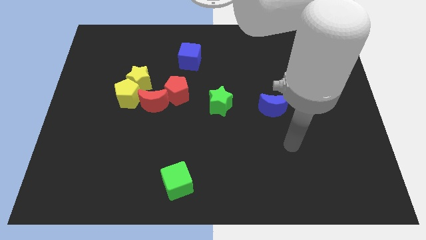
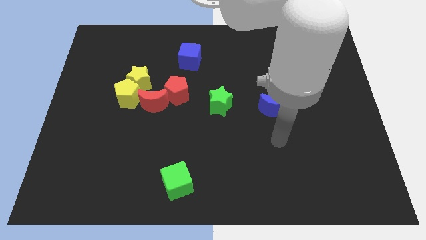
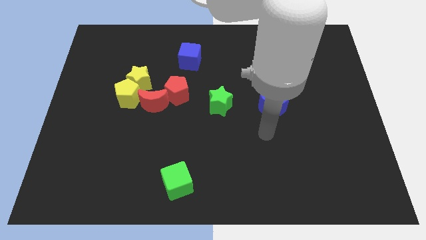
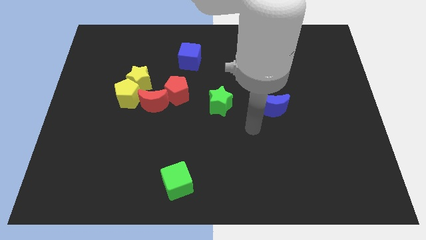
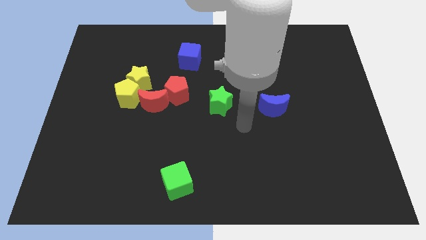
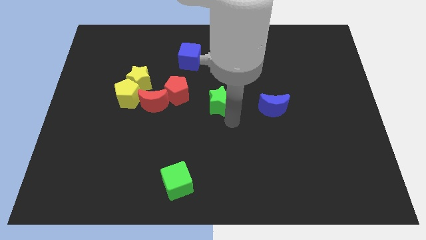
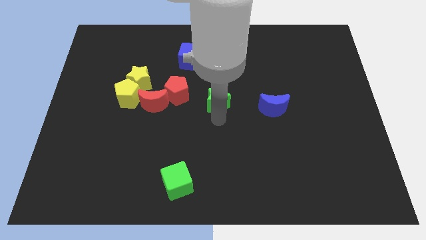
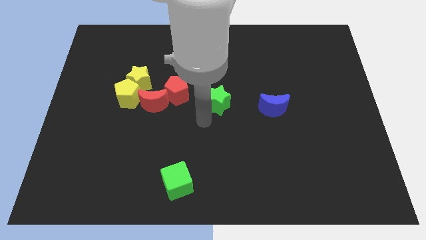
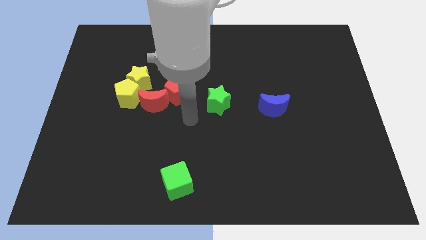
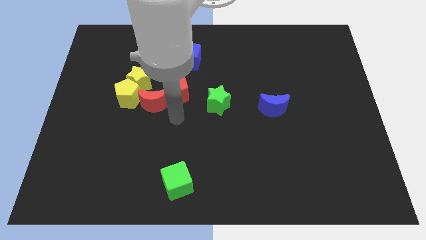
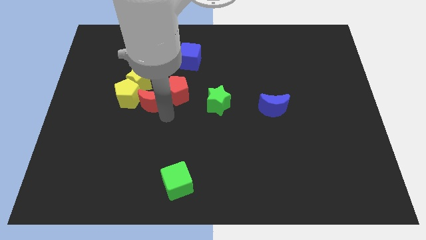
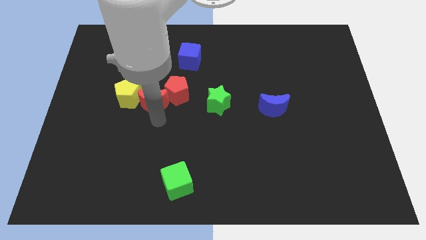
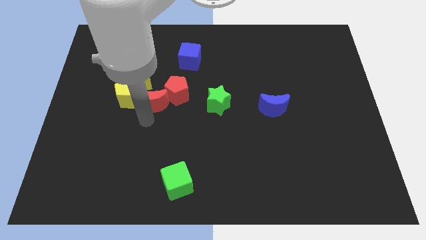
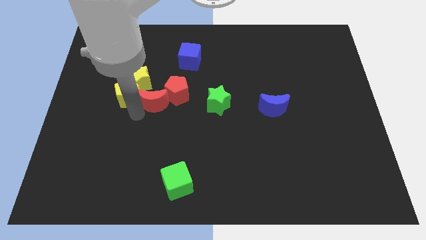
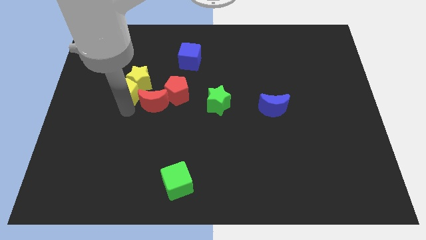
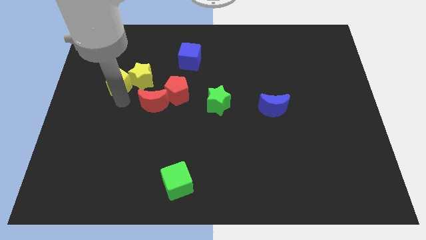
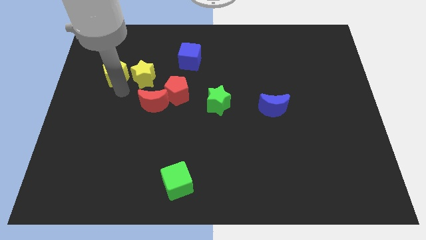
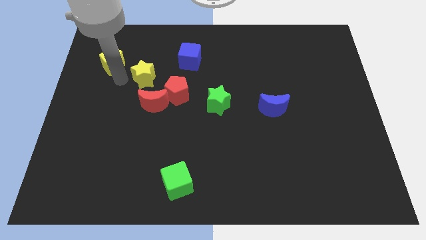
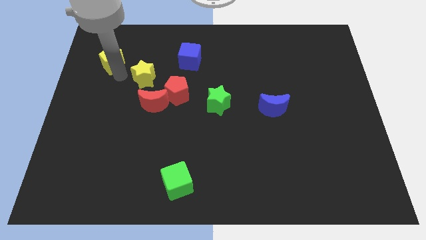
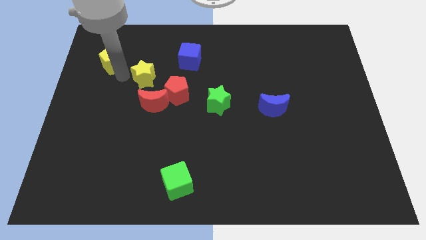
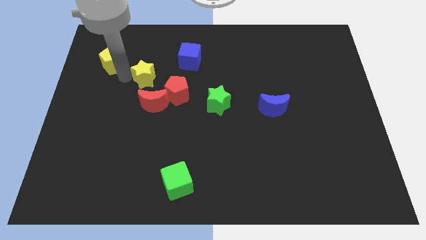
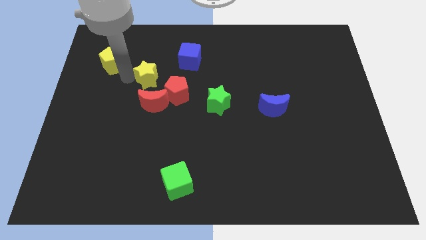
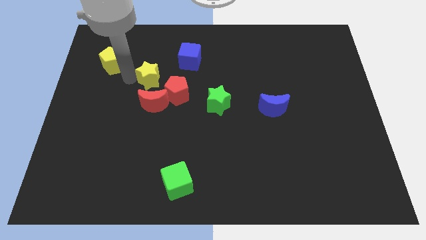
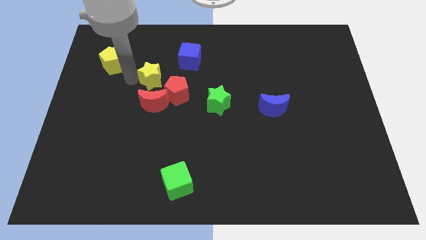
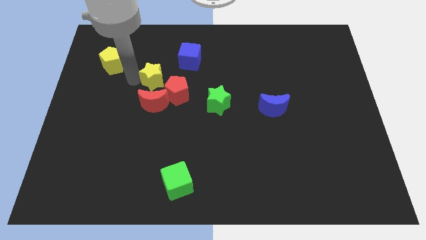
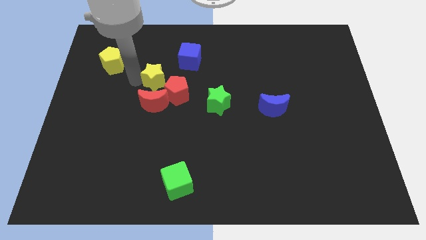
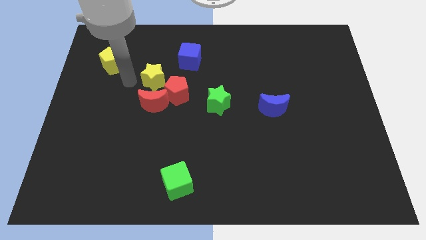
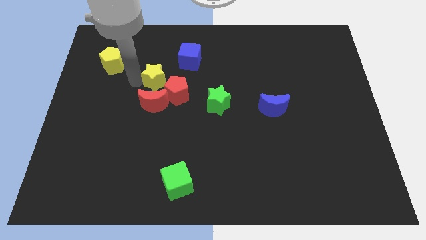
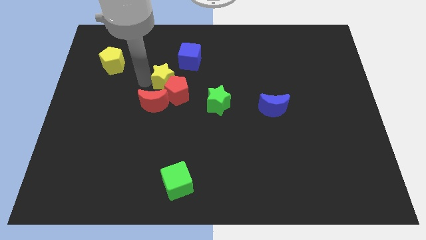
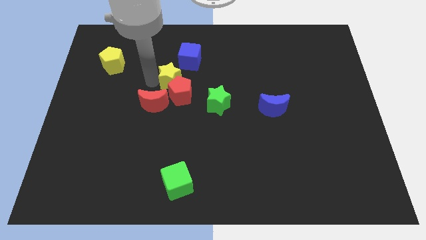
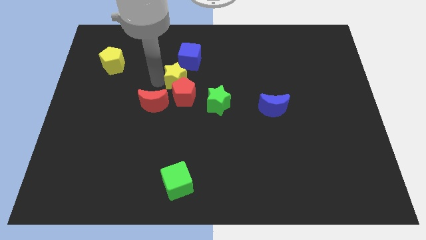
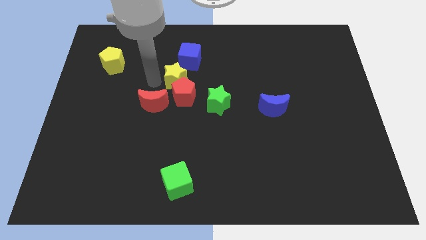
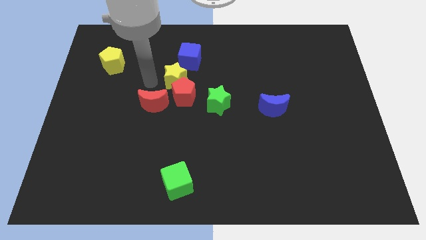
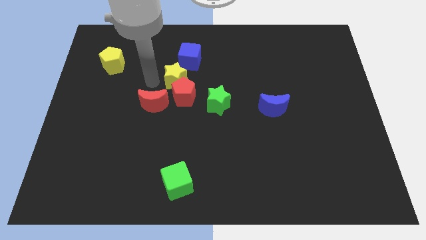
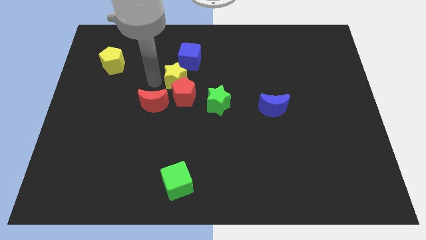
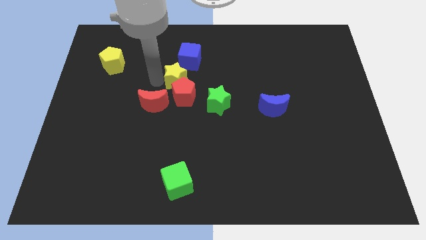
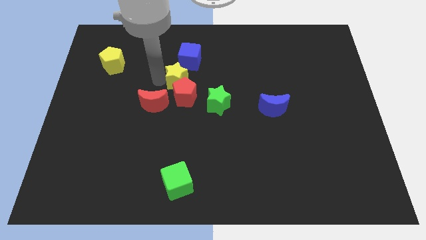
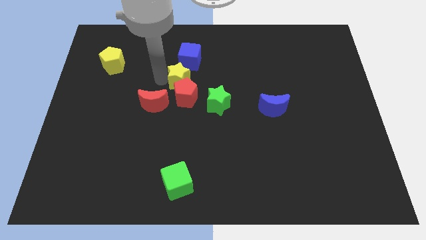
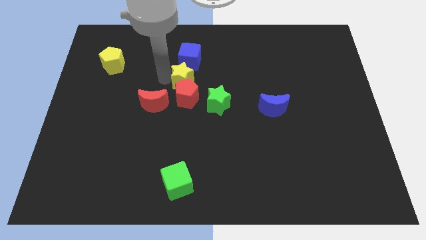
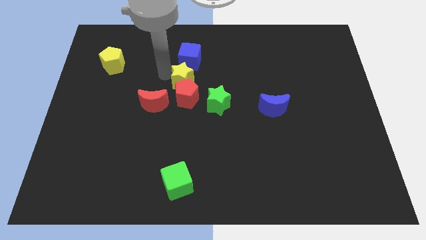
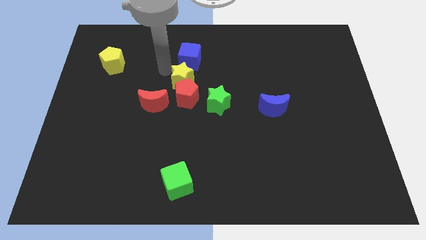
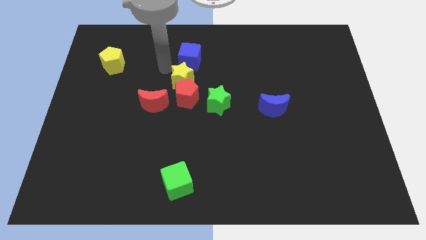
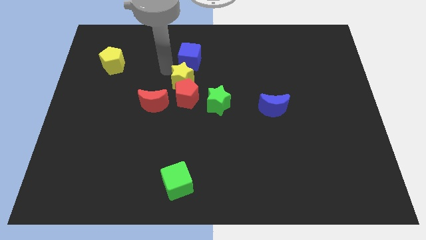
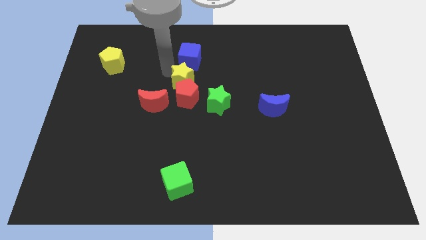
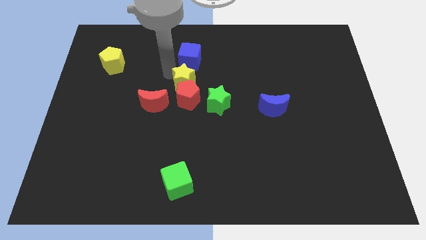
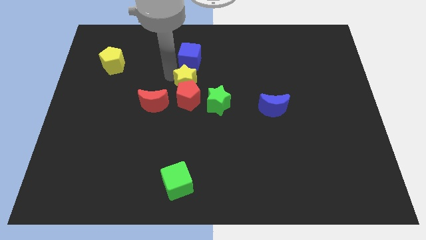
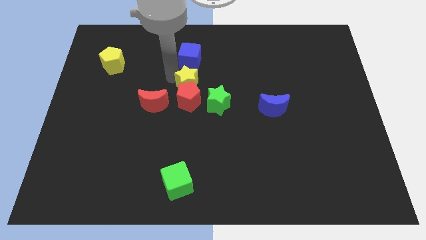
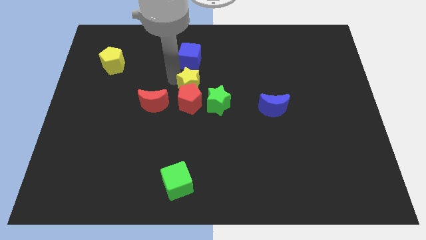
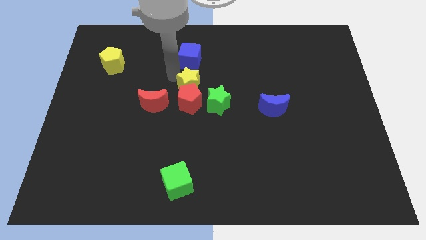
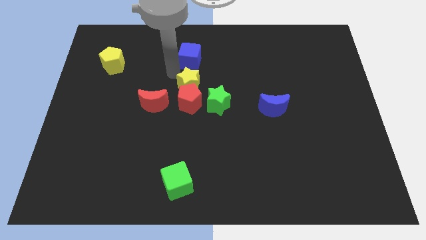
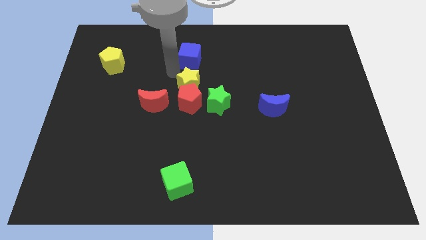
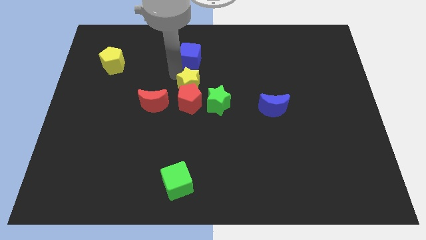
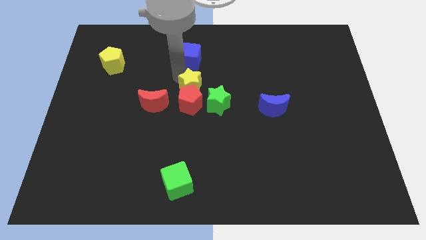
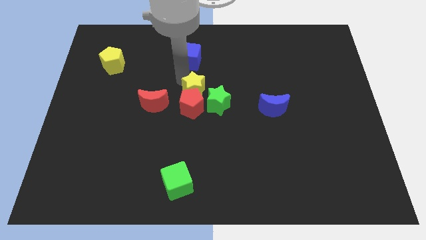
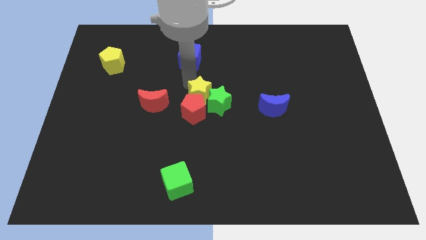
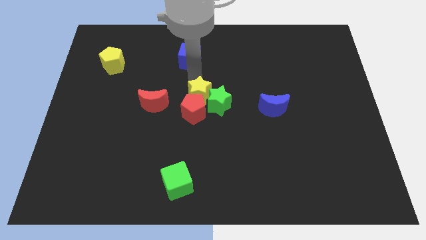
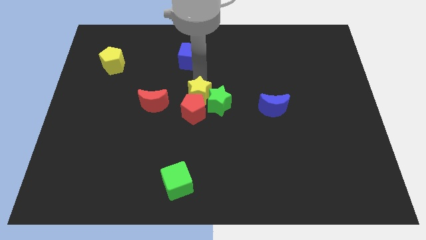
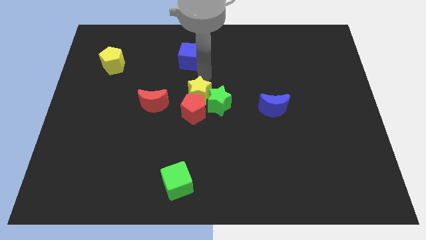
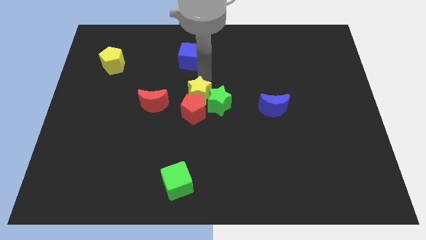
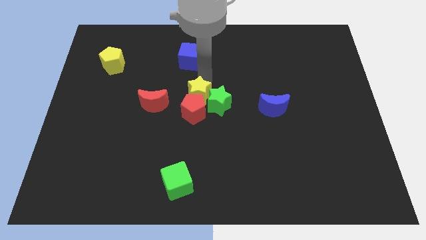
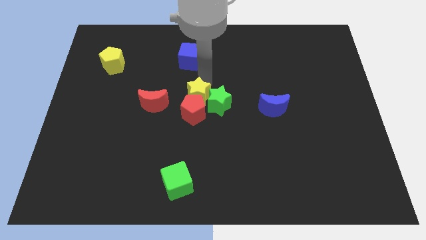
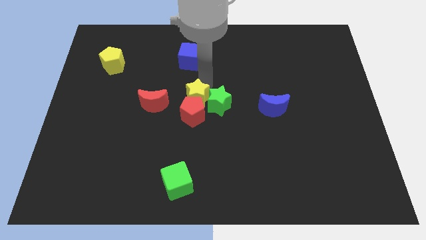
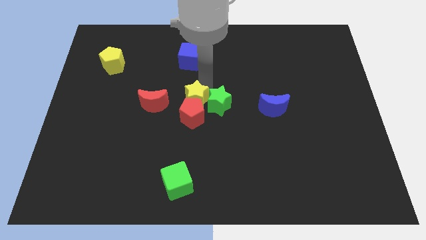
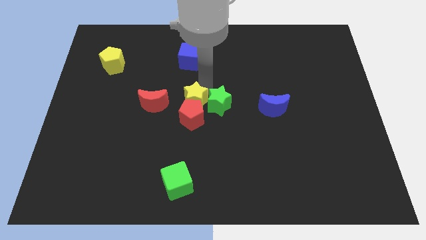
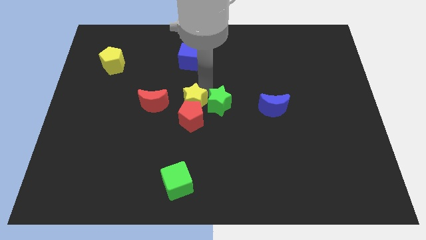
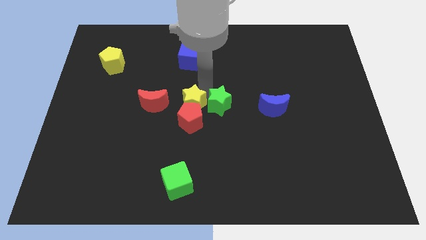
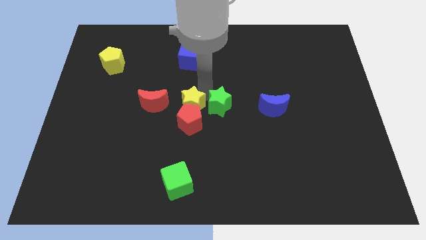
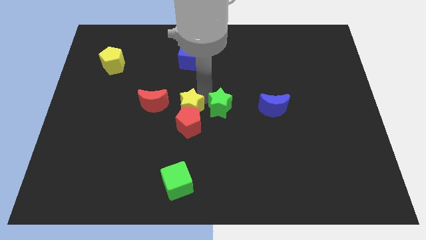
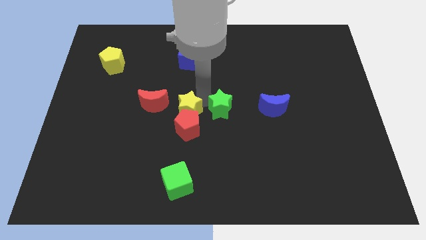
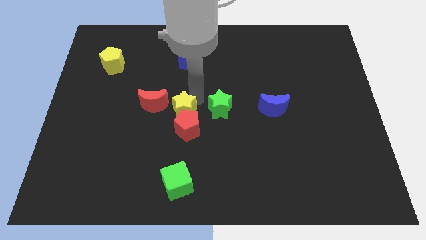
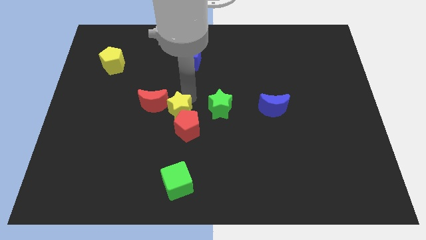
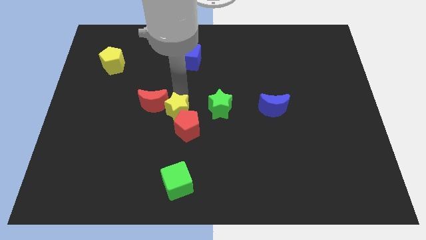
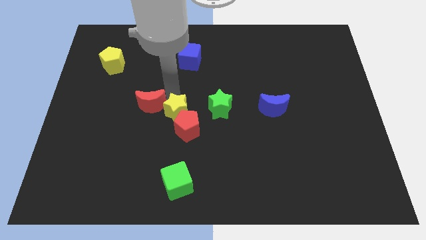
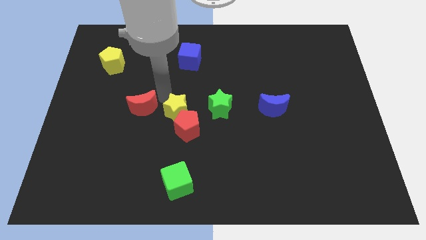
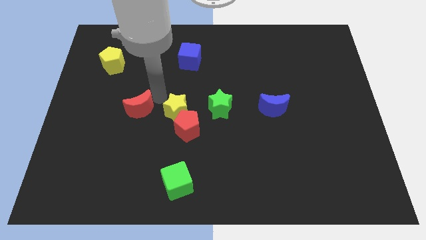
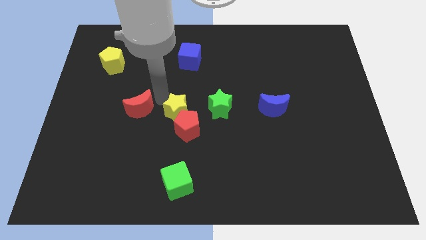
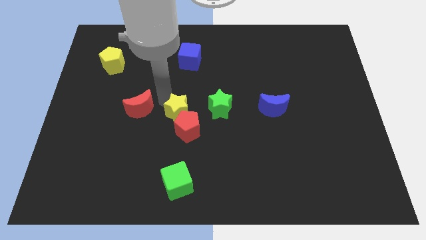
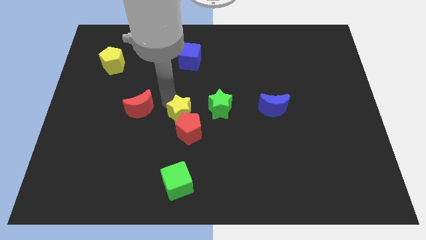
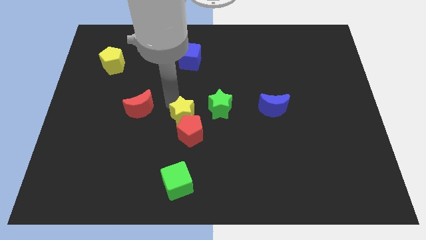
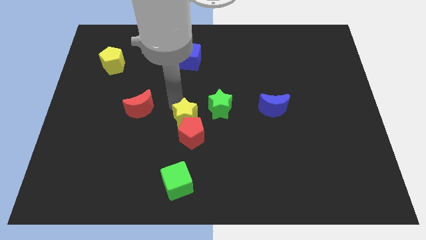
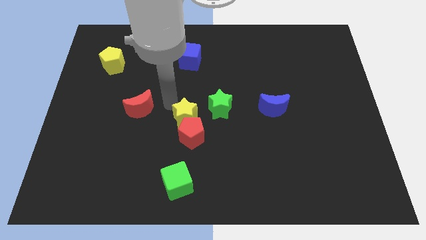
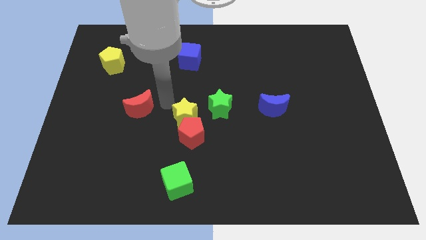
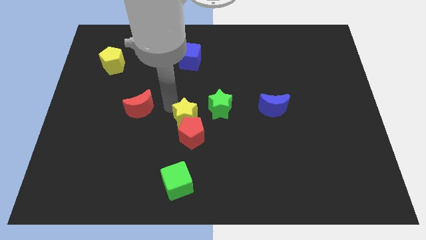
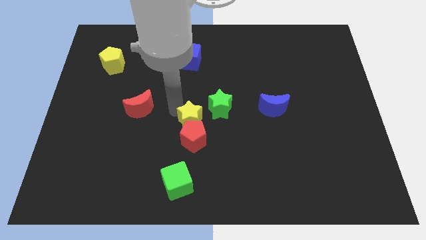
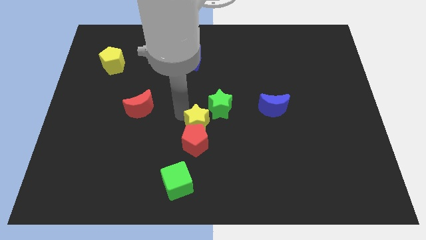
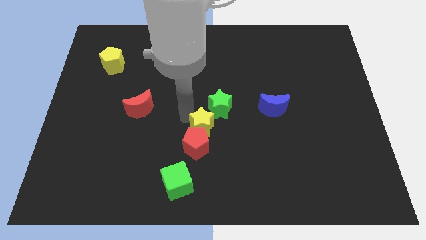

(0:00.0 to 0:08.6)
slide the yellow star diagonally downwards and right
